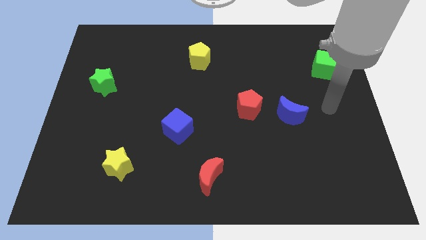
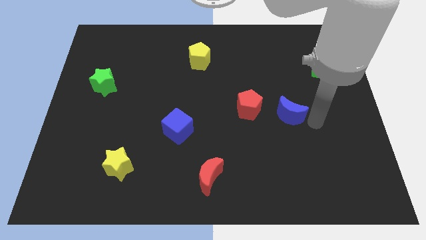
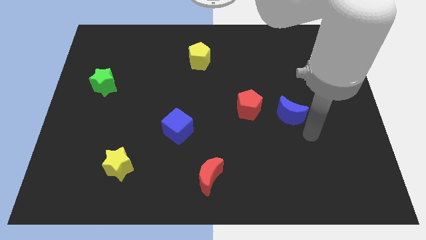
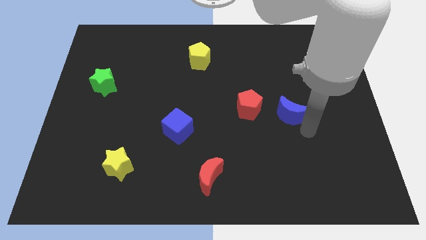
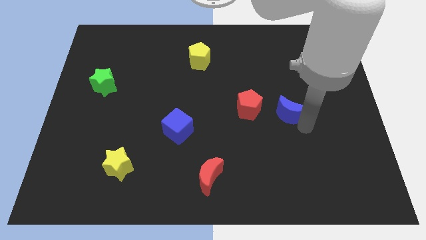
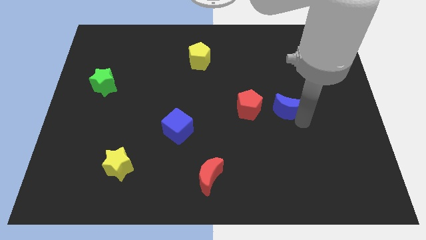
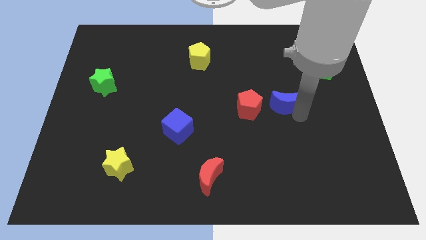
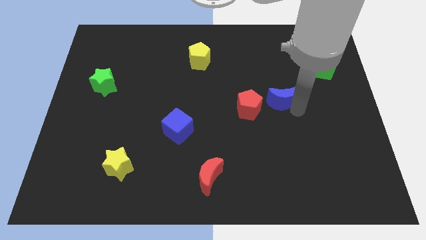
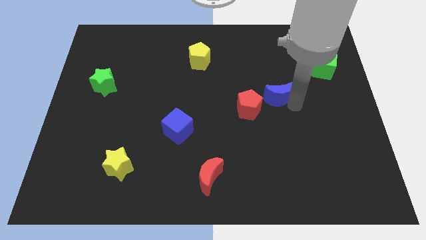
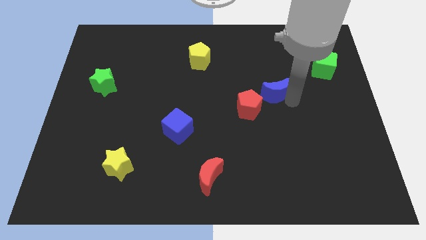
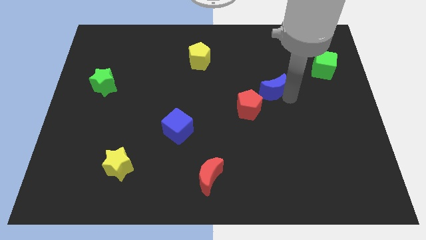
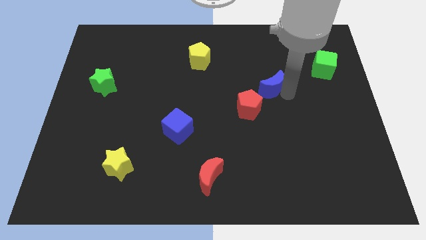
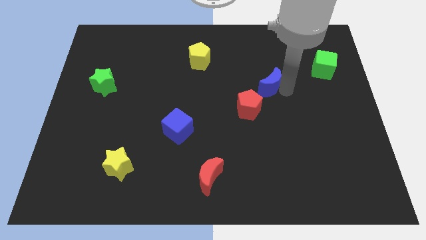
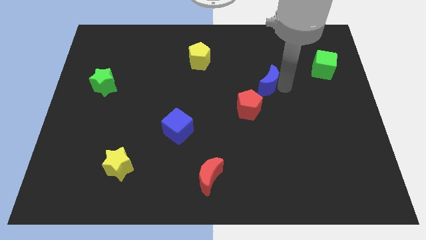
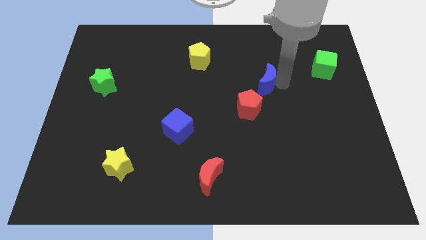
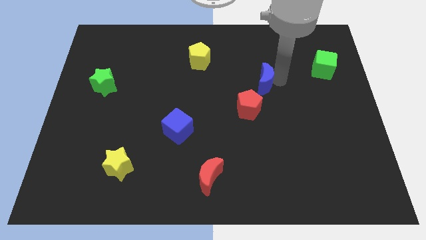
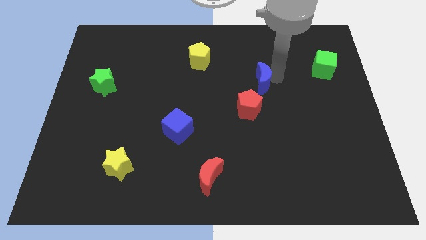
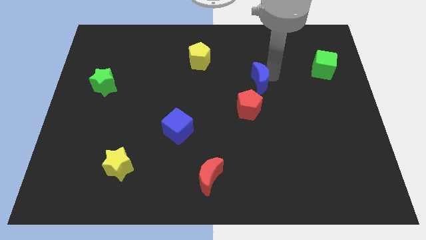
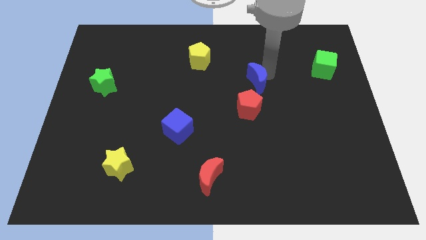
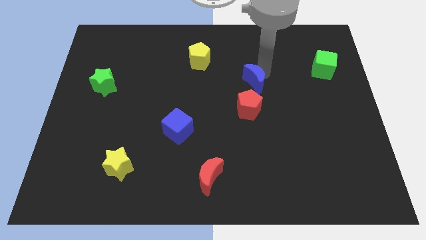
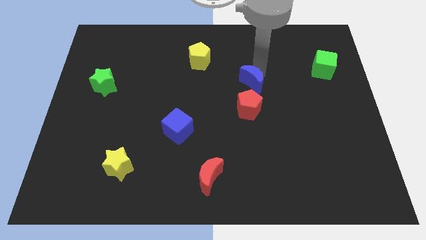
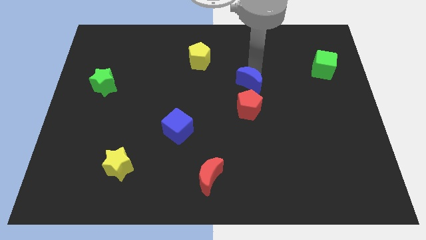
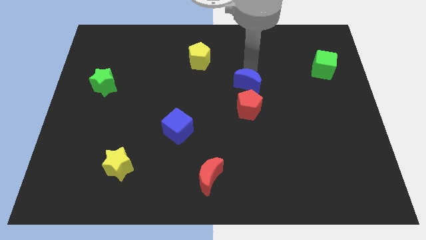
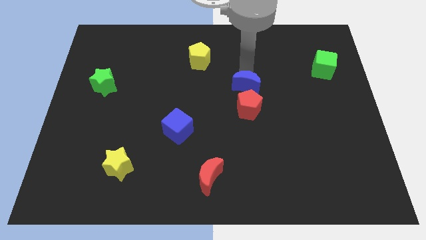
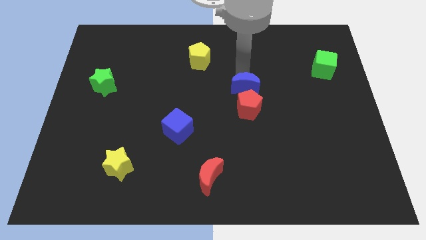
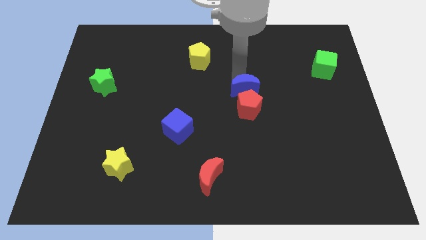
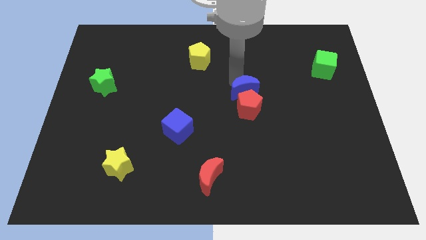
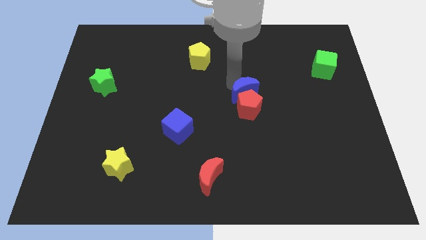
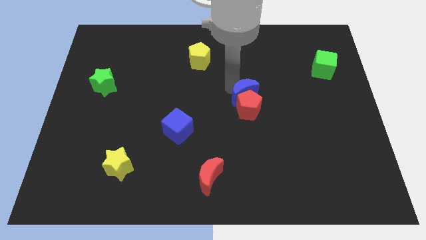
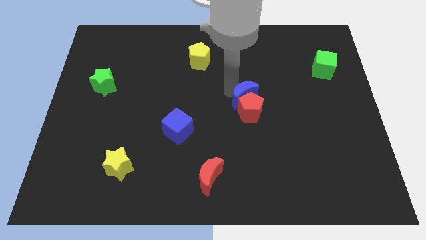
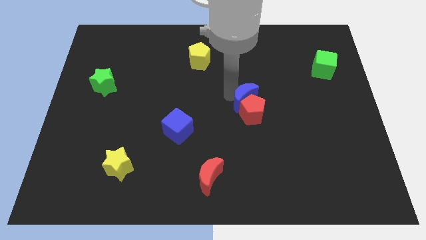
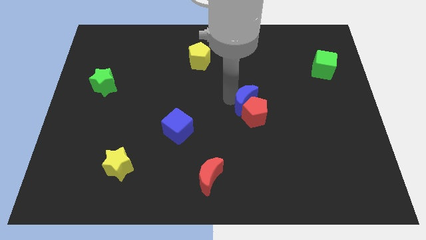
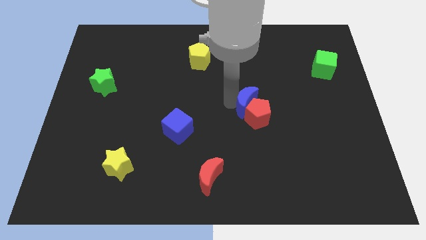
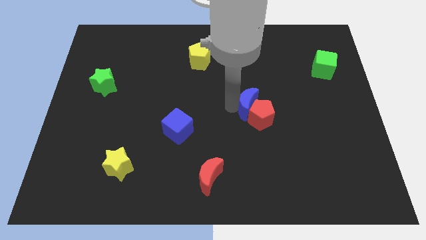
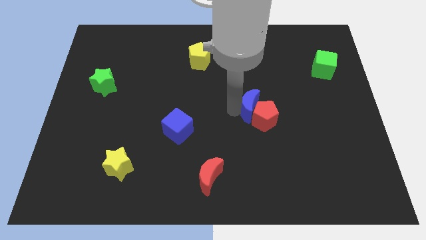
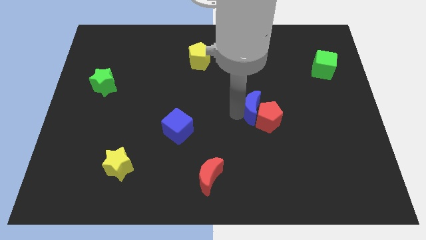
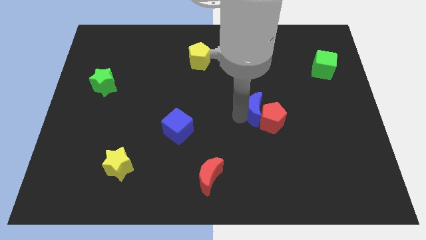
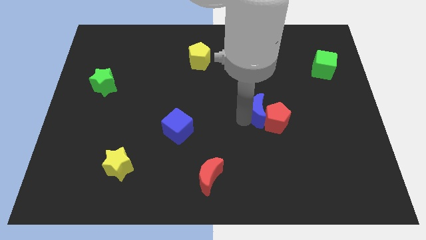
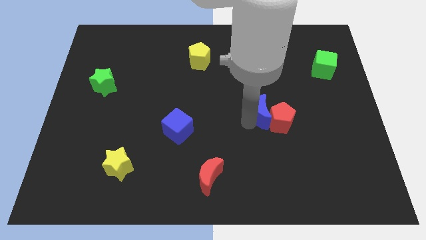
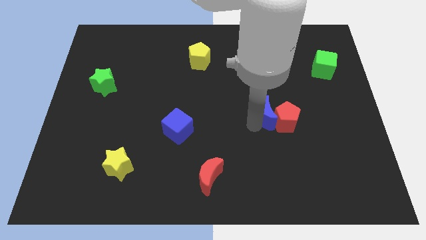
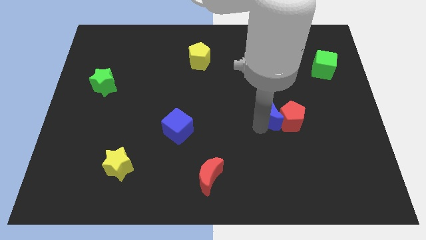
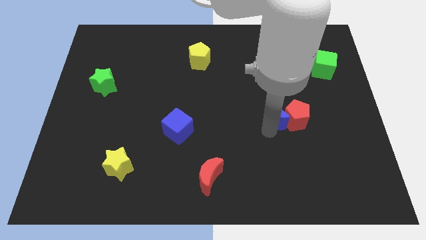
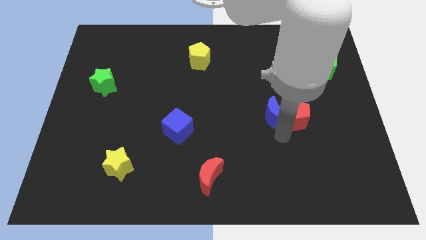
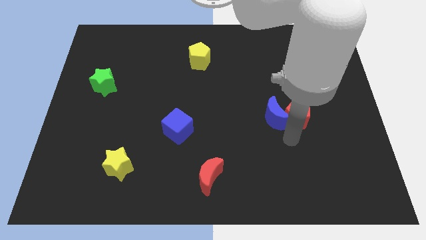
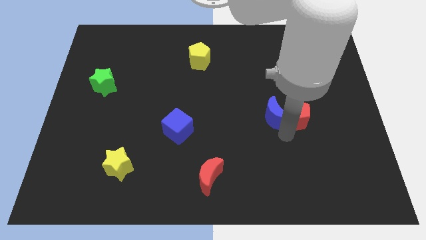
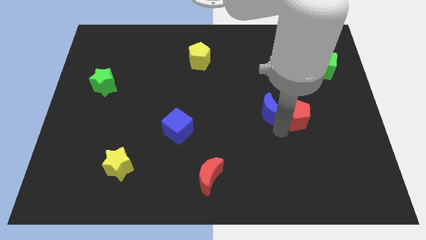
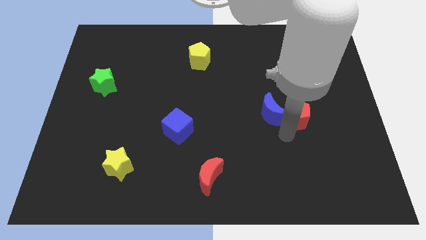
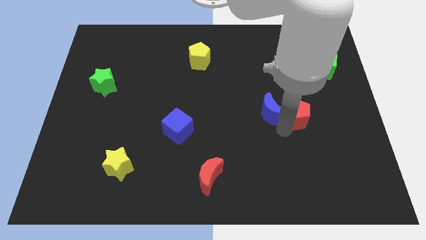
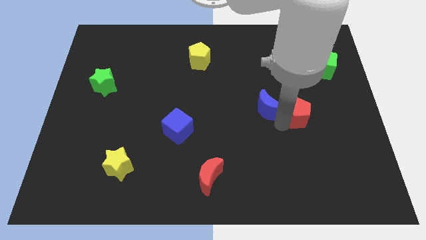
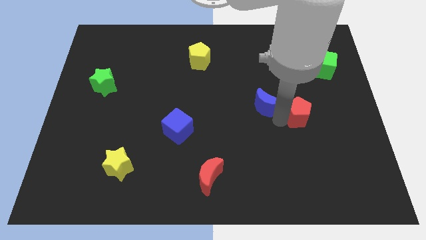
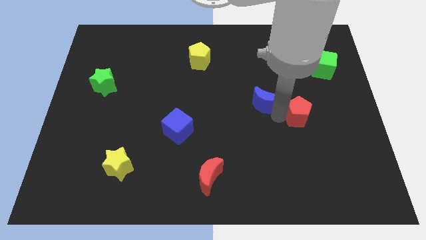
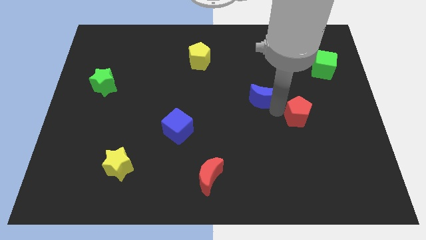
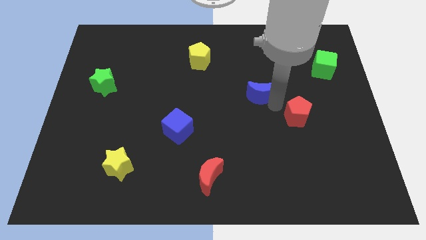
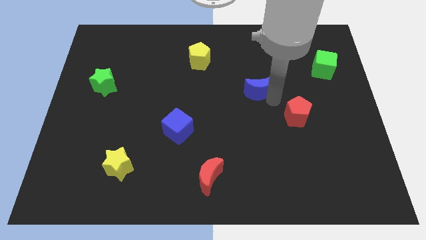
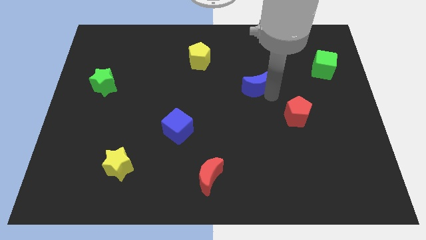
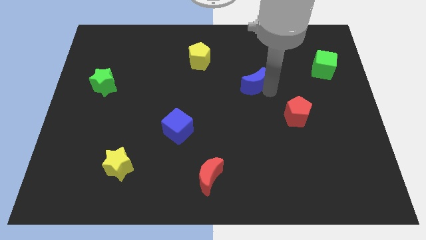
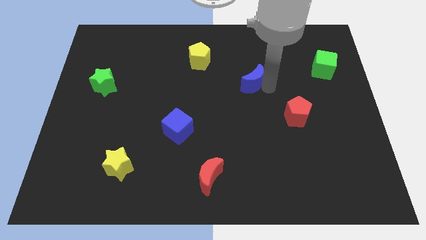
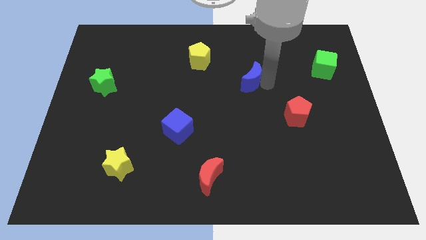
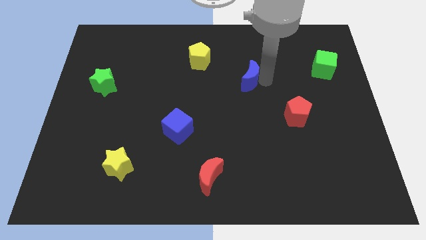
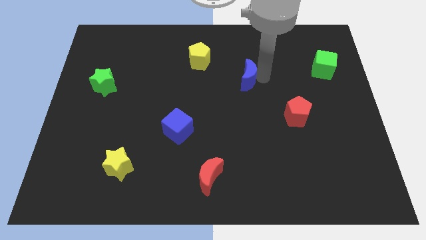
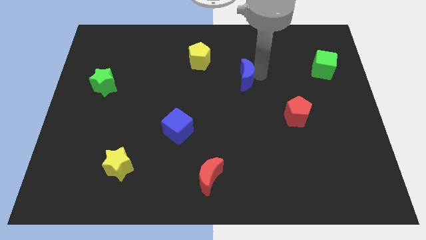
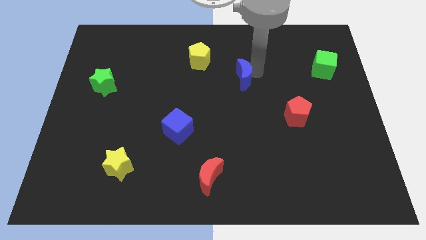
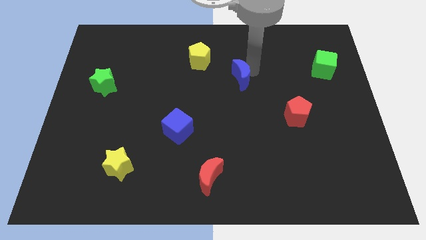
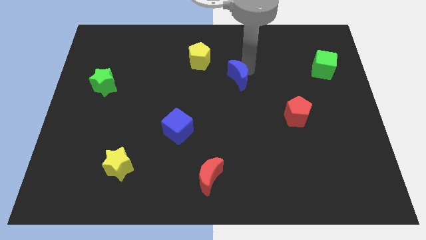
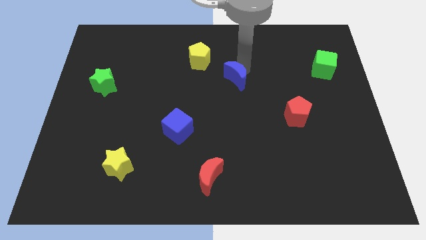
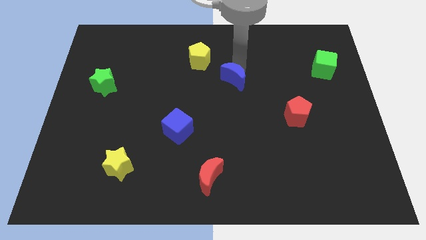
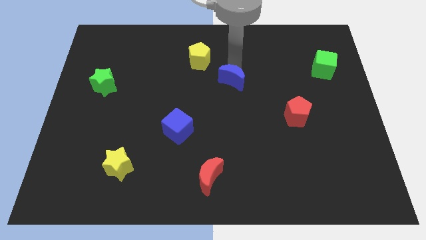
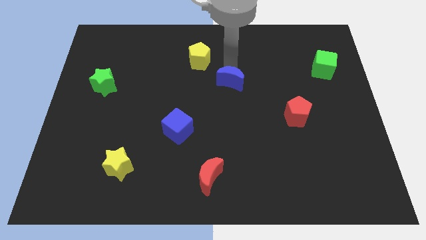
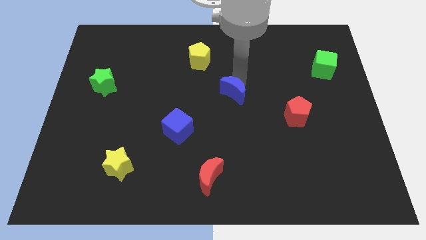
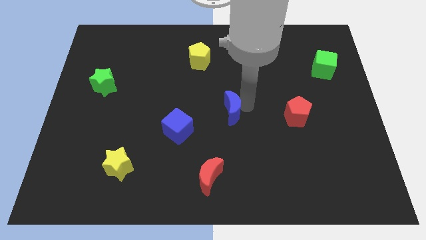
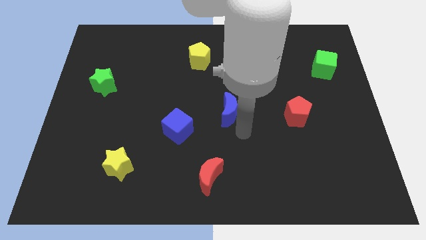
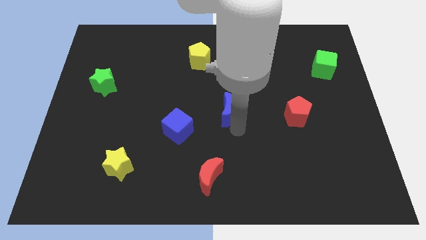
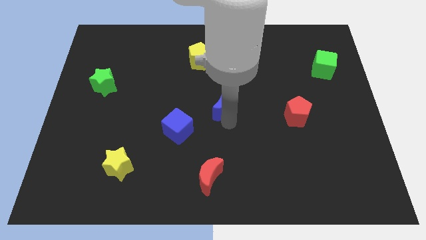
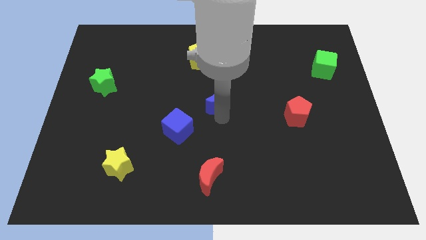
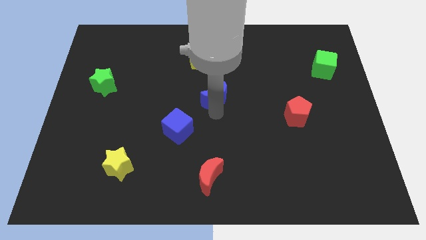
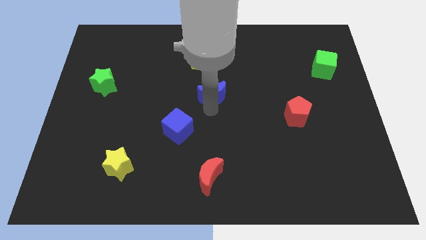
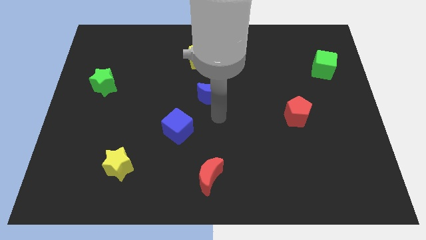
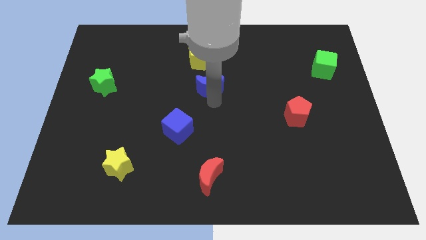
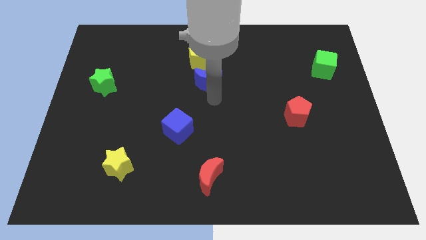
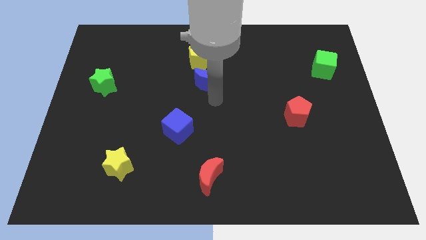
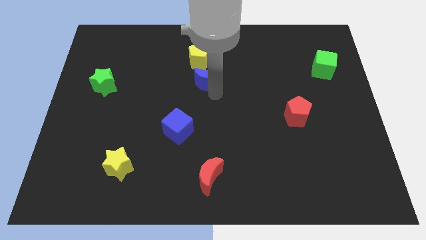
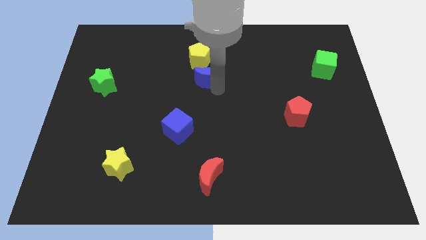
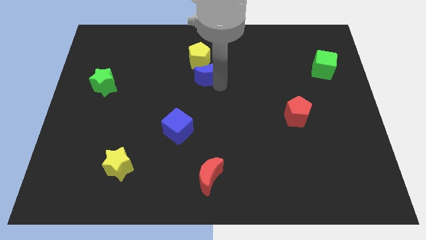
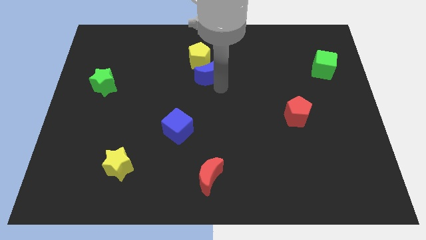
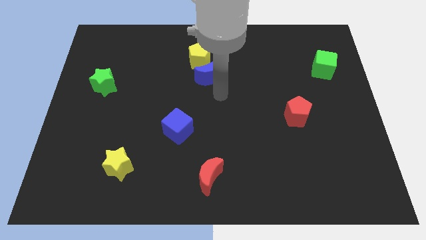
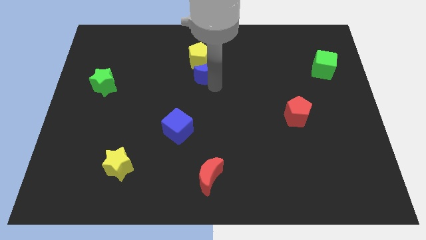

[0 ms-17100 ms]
push the blue moon towards the yellow pentagon
